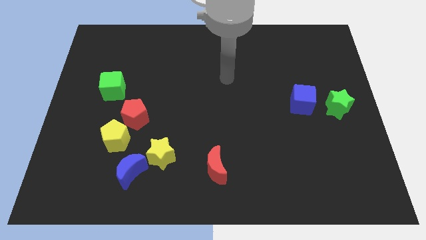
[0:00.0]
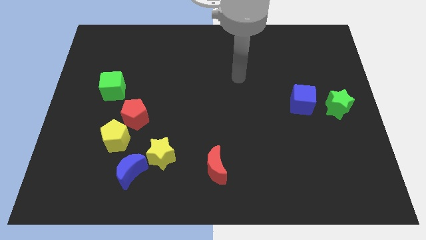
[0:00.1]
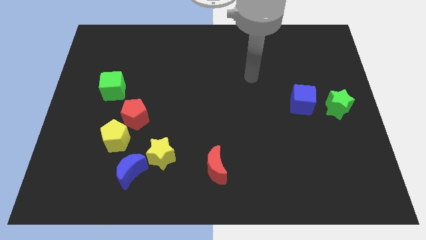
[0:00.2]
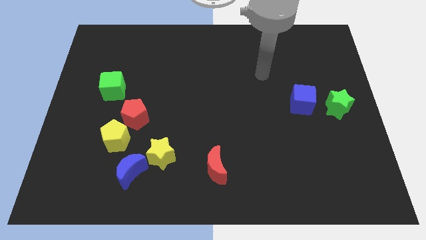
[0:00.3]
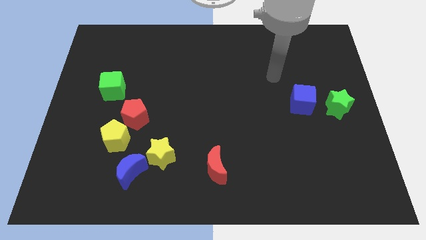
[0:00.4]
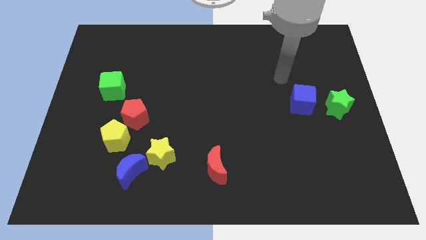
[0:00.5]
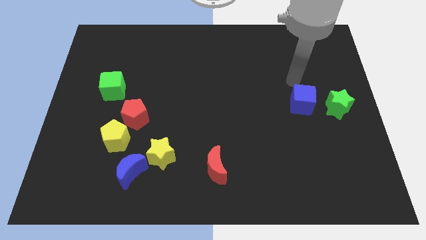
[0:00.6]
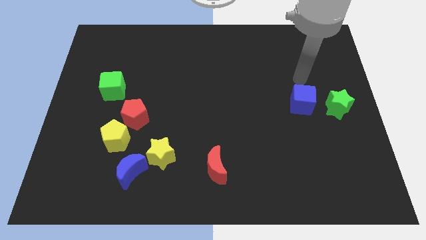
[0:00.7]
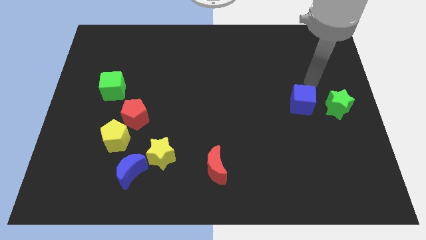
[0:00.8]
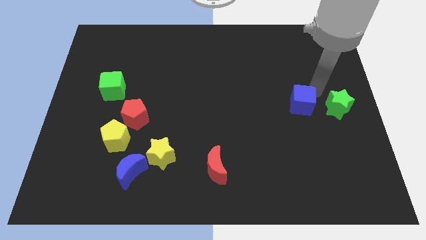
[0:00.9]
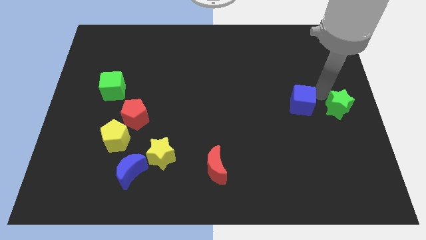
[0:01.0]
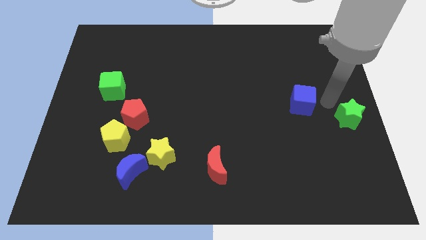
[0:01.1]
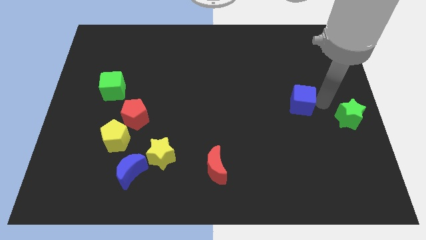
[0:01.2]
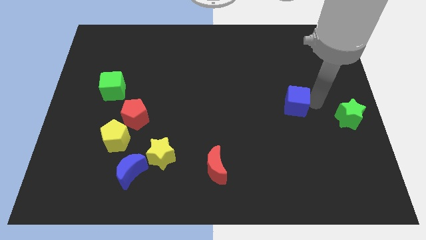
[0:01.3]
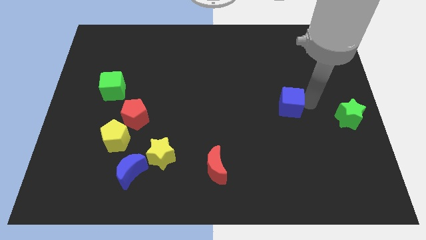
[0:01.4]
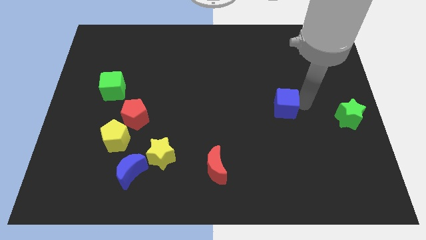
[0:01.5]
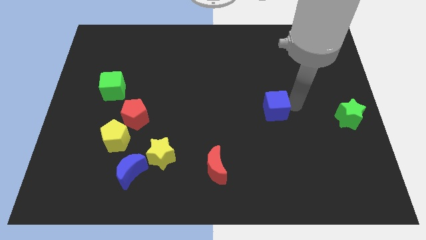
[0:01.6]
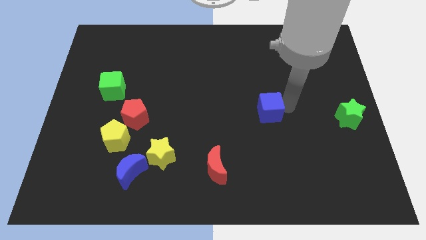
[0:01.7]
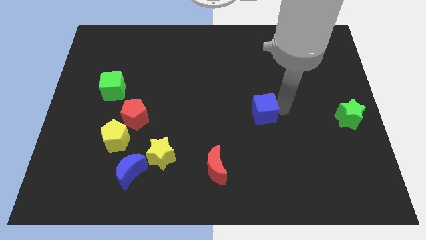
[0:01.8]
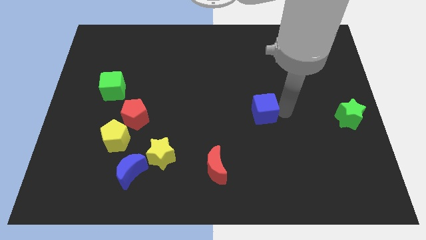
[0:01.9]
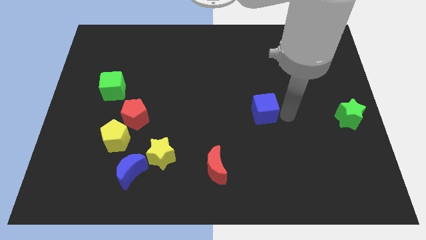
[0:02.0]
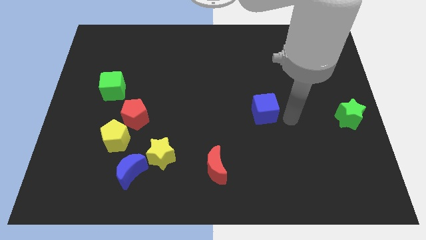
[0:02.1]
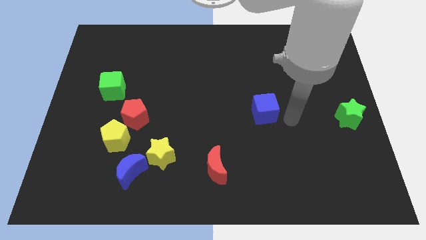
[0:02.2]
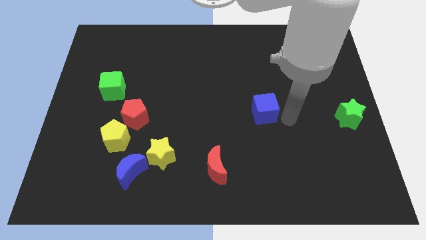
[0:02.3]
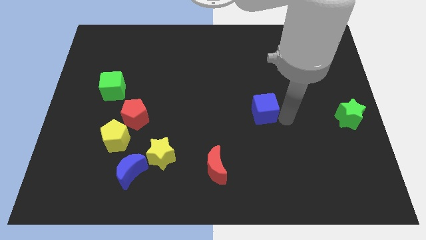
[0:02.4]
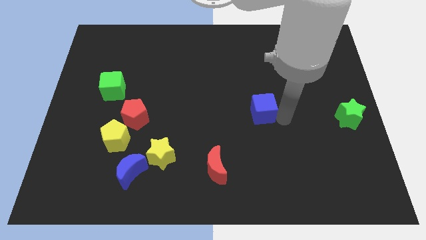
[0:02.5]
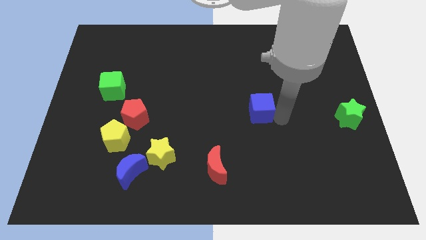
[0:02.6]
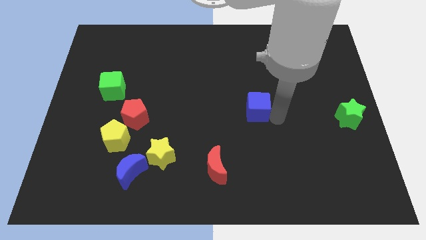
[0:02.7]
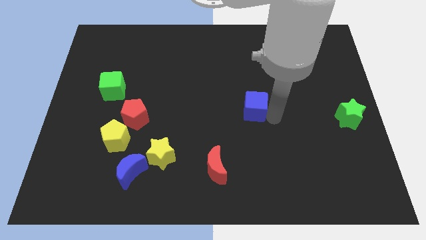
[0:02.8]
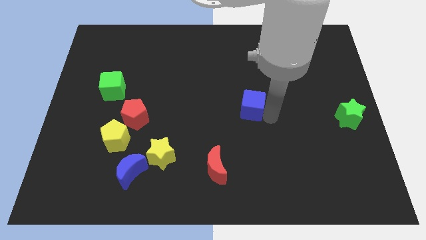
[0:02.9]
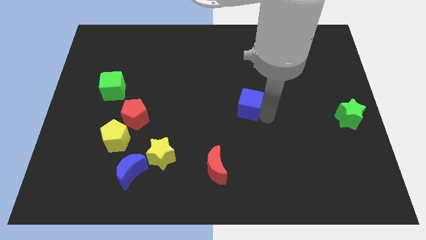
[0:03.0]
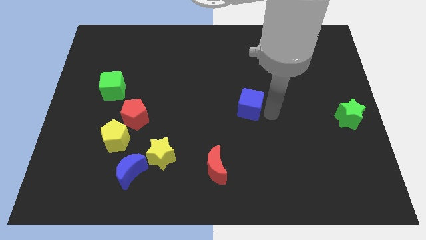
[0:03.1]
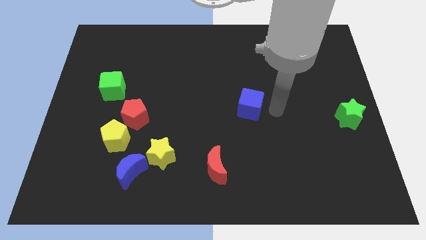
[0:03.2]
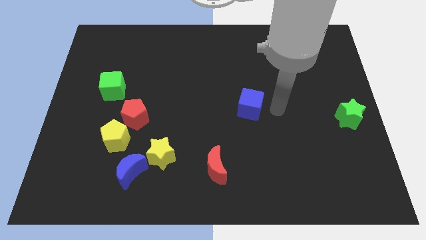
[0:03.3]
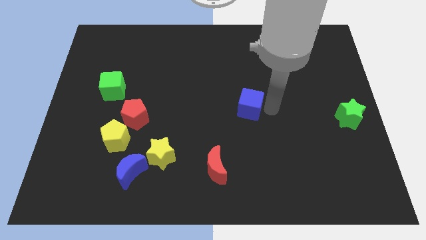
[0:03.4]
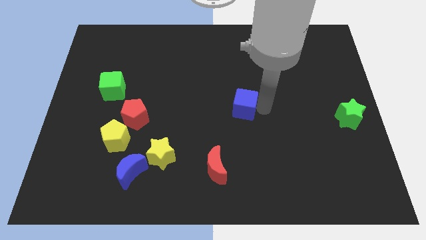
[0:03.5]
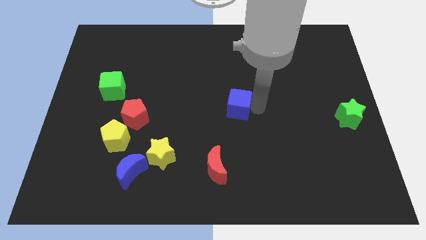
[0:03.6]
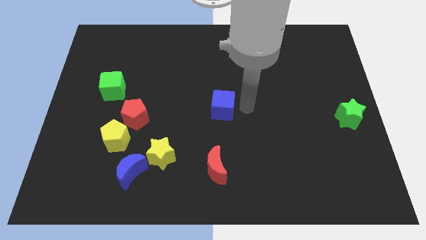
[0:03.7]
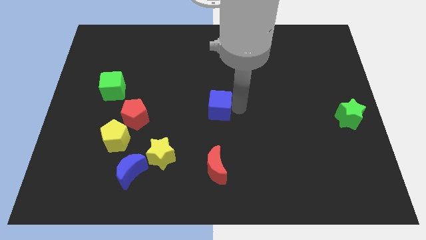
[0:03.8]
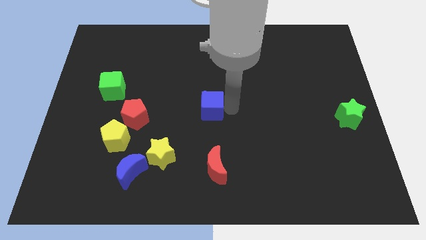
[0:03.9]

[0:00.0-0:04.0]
push the blue cube to the left

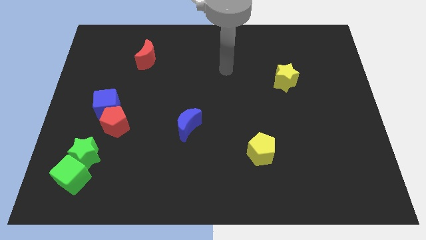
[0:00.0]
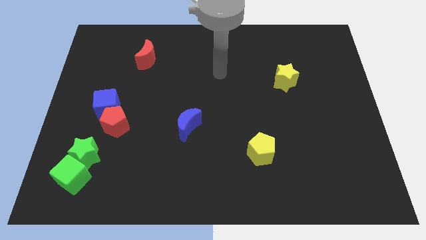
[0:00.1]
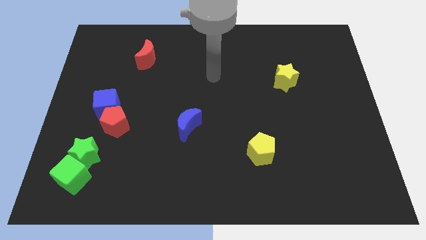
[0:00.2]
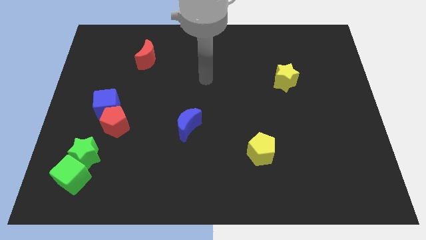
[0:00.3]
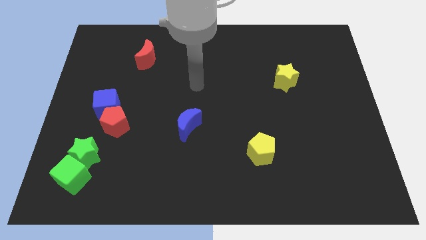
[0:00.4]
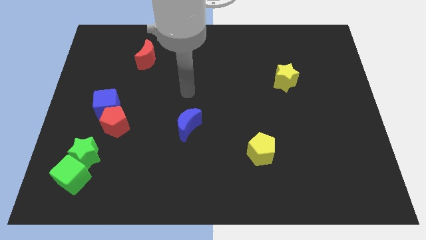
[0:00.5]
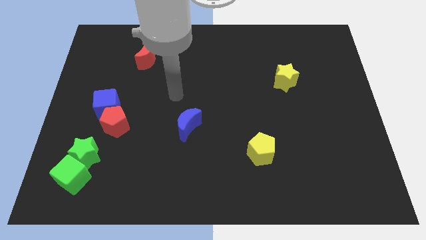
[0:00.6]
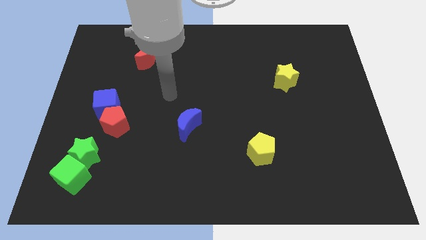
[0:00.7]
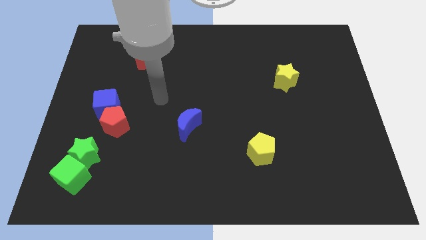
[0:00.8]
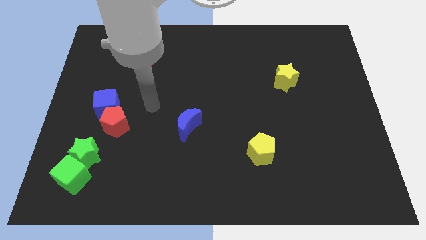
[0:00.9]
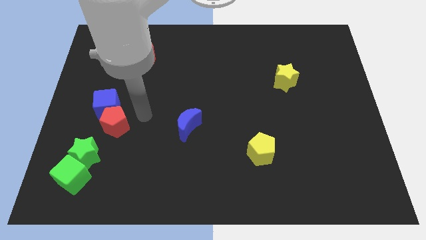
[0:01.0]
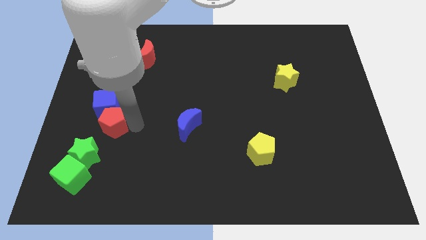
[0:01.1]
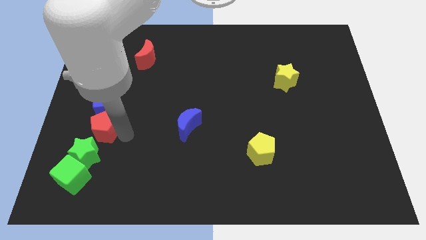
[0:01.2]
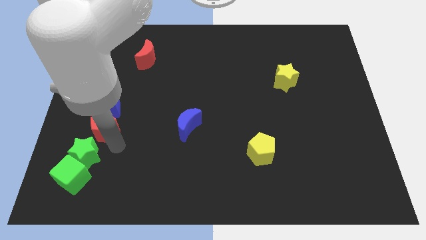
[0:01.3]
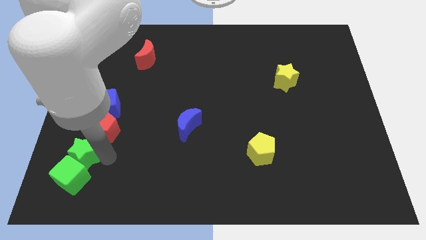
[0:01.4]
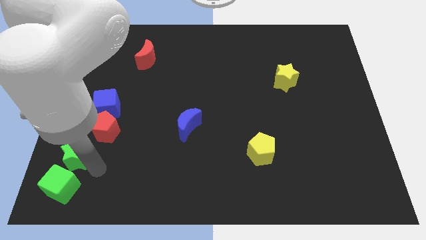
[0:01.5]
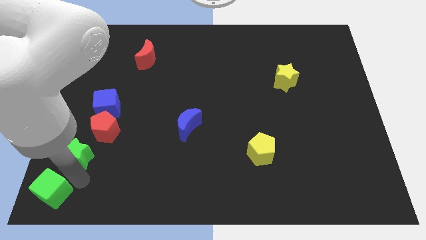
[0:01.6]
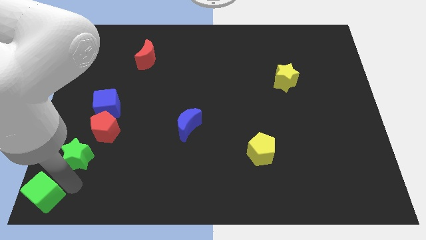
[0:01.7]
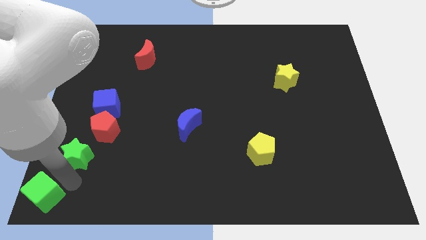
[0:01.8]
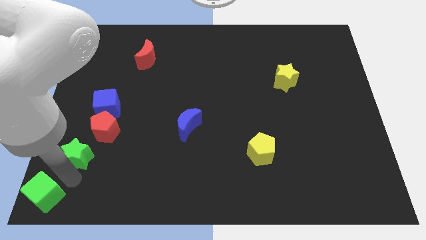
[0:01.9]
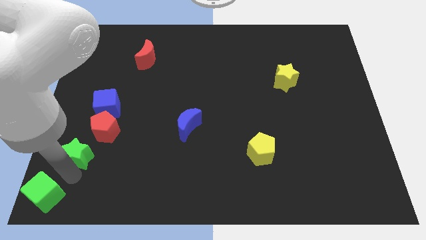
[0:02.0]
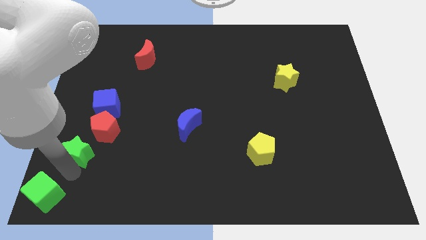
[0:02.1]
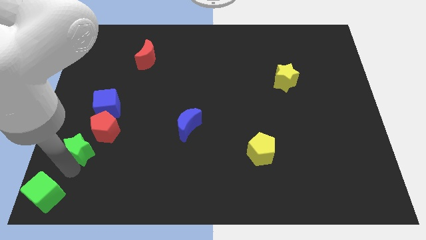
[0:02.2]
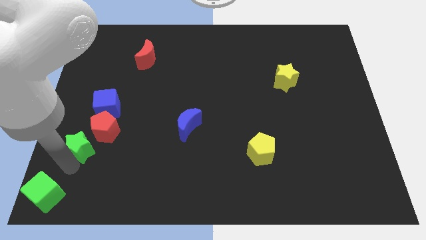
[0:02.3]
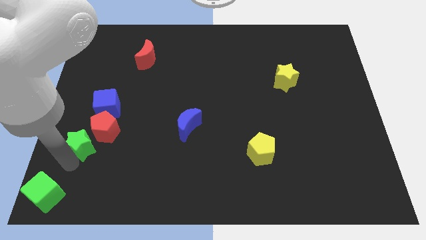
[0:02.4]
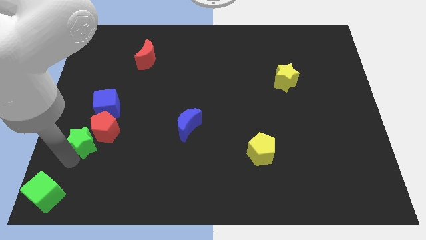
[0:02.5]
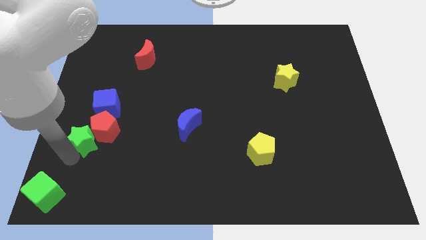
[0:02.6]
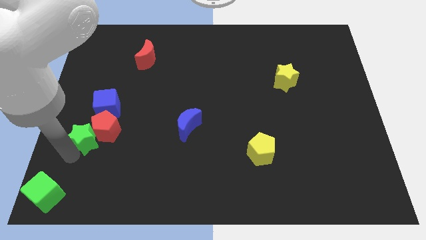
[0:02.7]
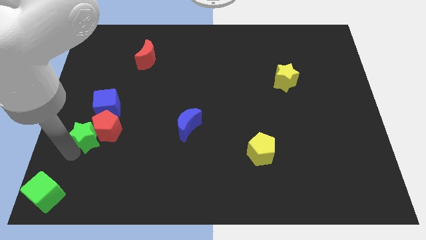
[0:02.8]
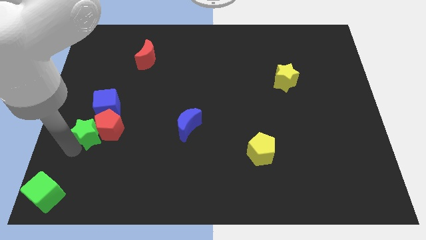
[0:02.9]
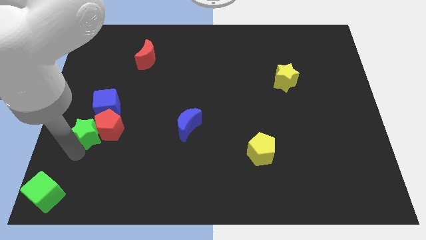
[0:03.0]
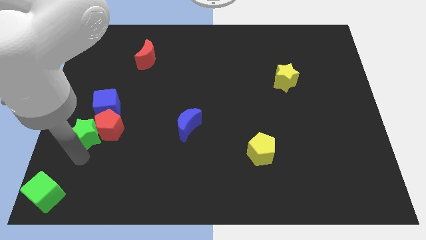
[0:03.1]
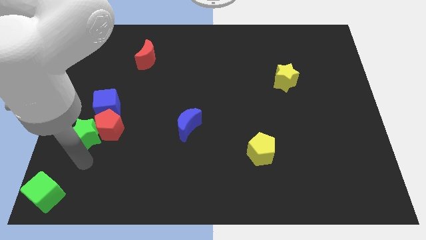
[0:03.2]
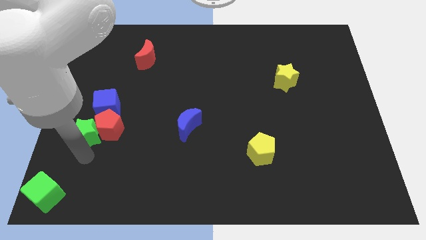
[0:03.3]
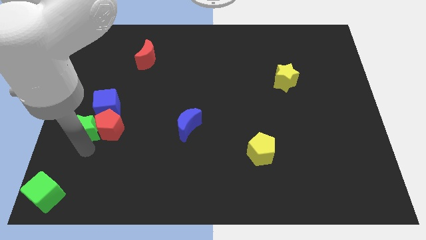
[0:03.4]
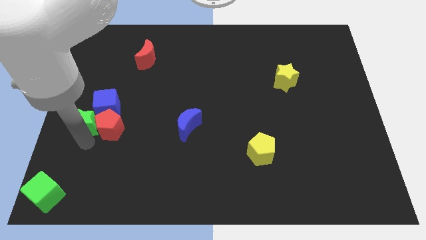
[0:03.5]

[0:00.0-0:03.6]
slide the green star upwards a little
